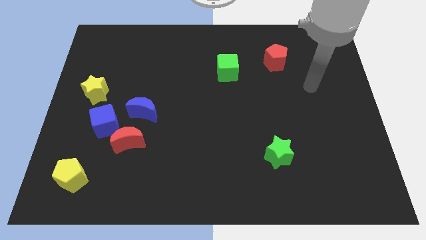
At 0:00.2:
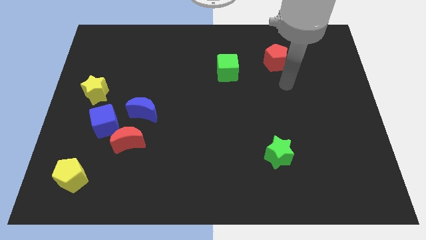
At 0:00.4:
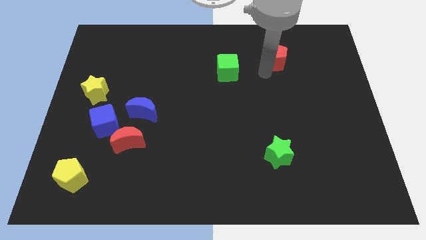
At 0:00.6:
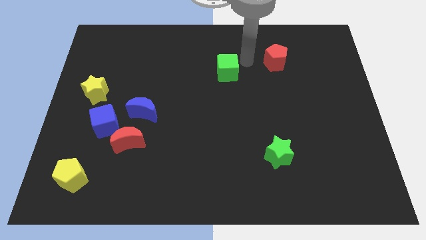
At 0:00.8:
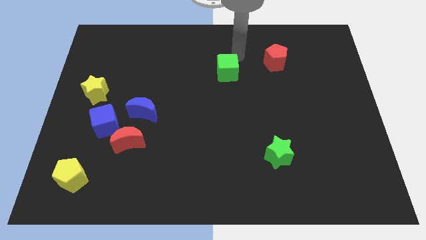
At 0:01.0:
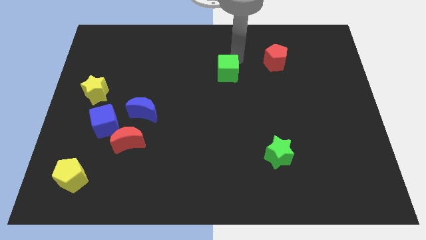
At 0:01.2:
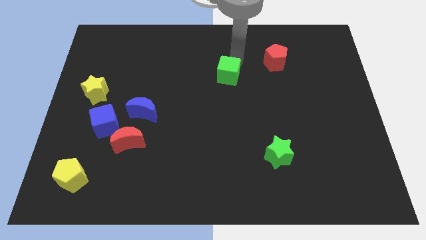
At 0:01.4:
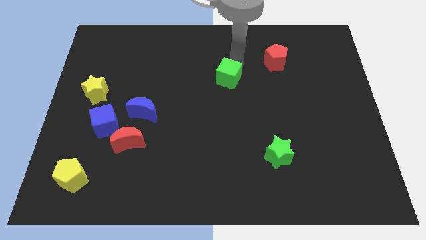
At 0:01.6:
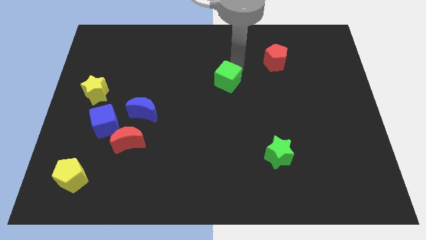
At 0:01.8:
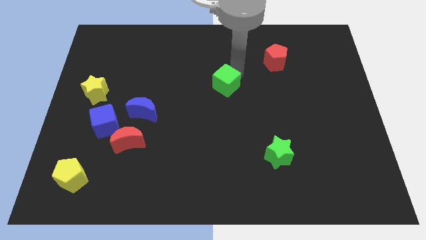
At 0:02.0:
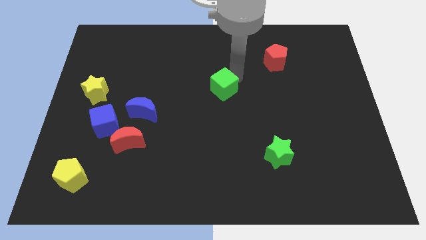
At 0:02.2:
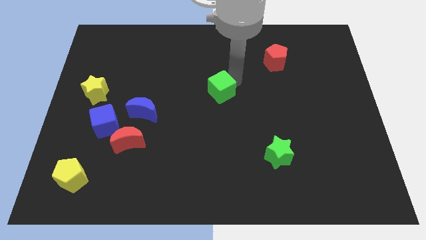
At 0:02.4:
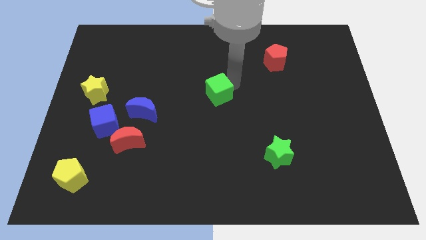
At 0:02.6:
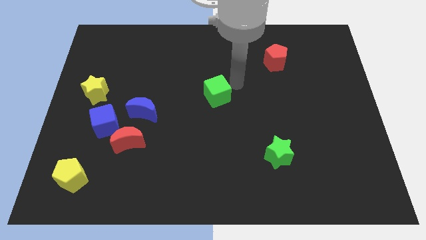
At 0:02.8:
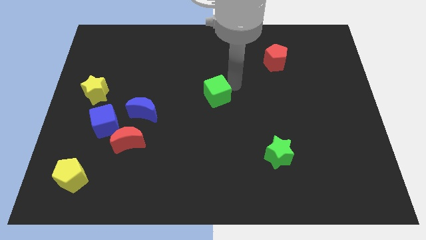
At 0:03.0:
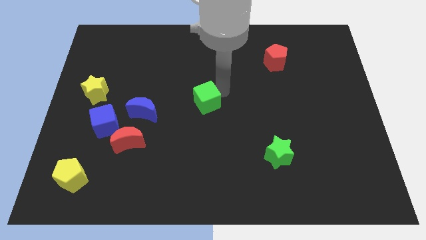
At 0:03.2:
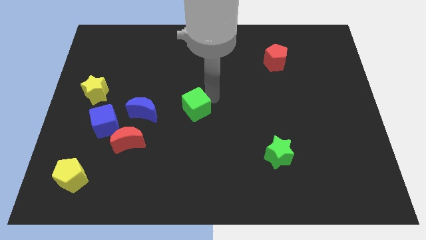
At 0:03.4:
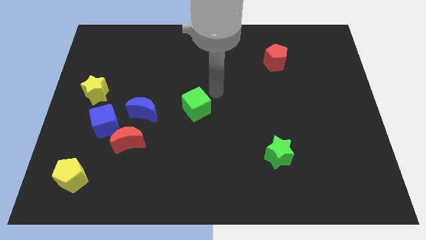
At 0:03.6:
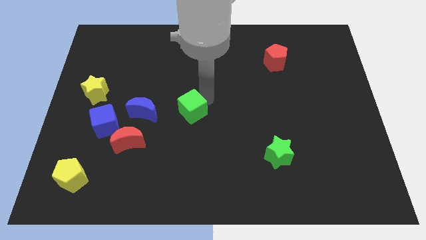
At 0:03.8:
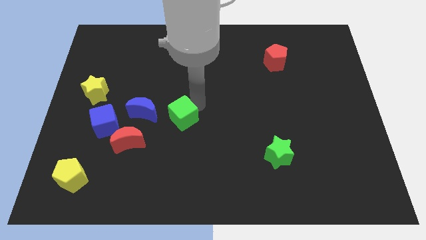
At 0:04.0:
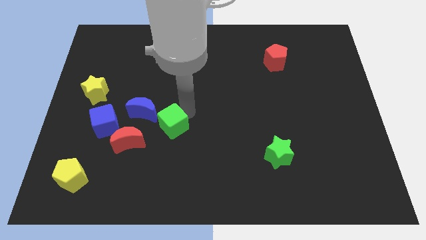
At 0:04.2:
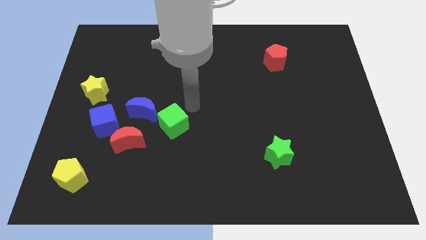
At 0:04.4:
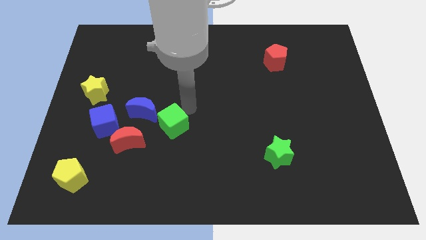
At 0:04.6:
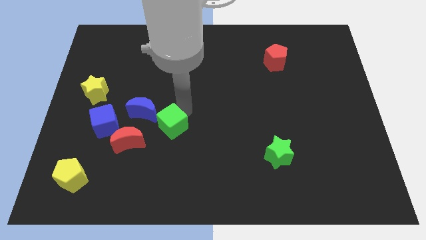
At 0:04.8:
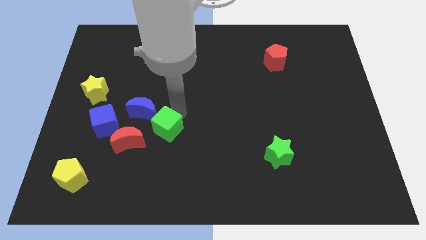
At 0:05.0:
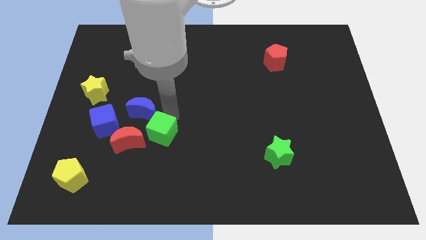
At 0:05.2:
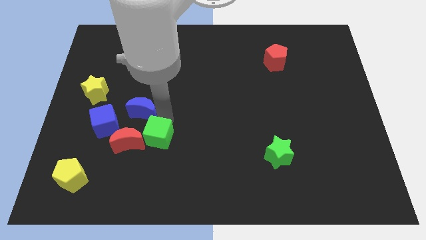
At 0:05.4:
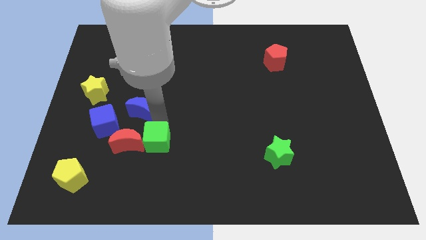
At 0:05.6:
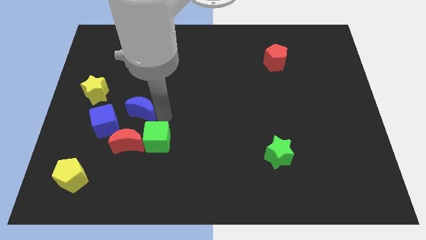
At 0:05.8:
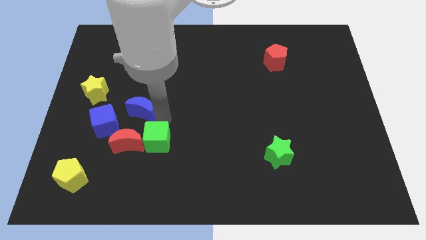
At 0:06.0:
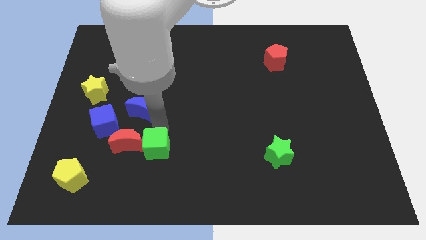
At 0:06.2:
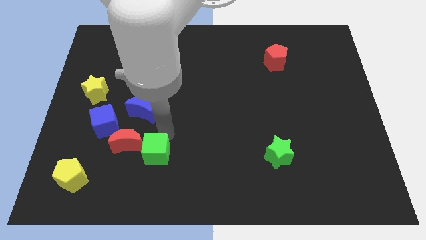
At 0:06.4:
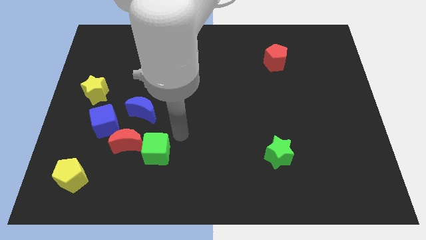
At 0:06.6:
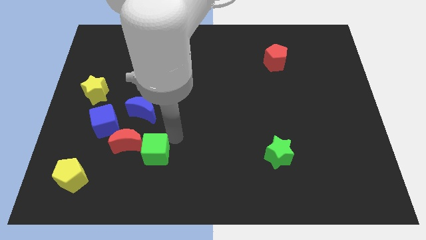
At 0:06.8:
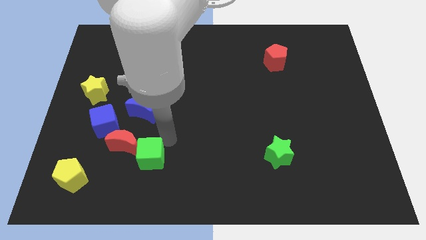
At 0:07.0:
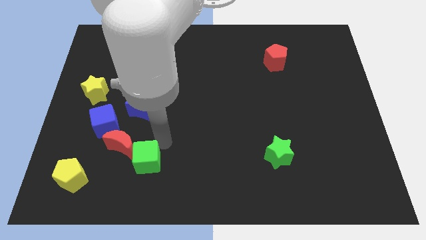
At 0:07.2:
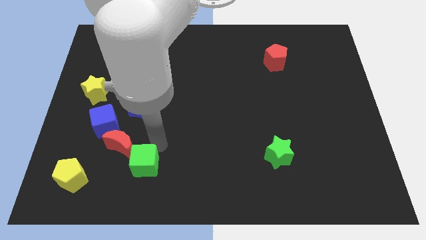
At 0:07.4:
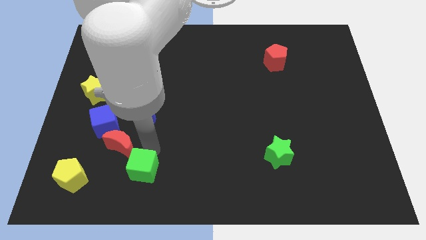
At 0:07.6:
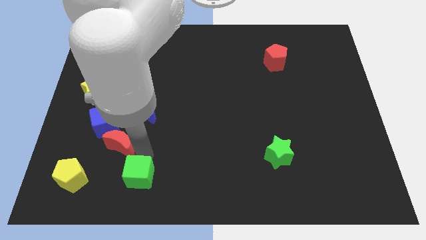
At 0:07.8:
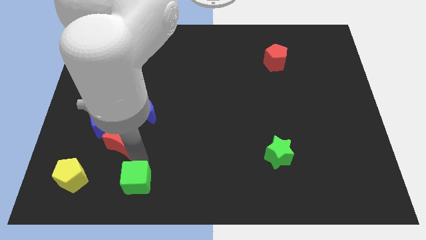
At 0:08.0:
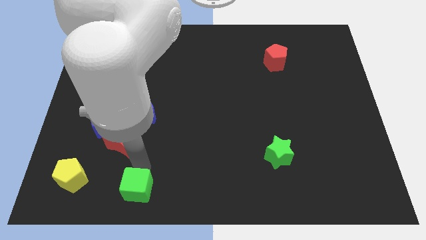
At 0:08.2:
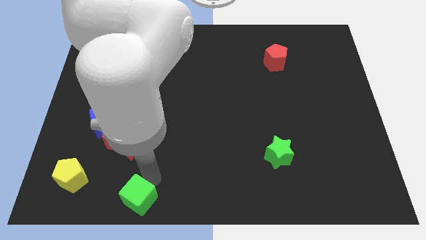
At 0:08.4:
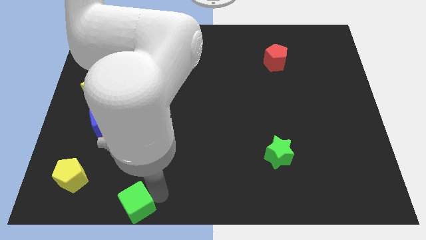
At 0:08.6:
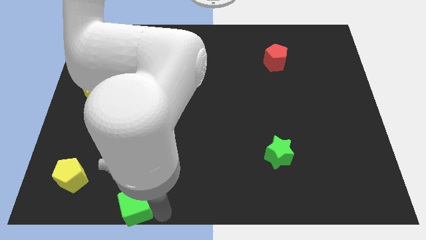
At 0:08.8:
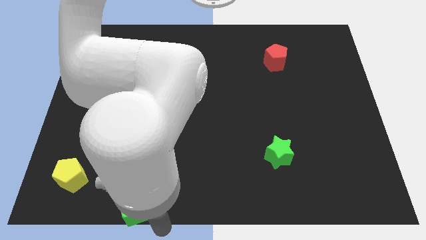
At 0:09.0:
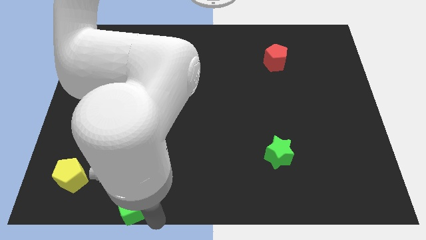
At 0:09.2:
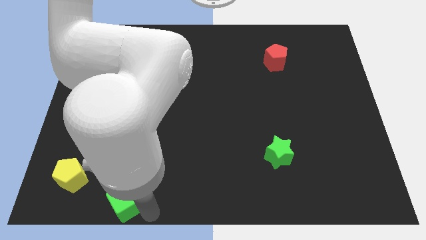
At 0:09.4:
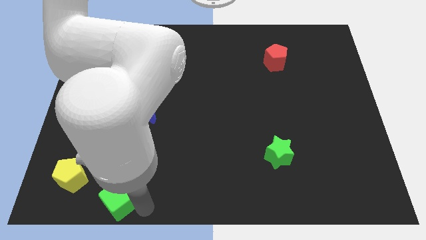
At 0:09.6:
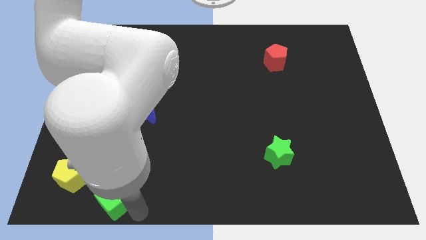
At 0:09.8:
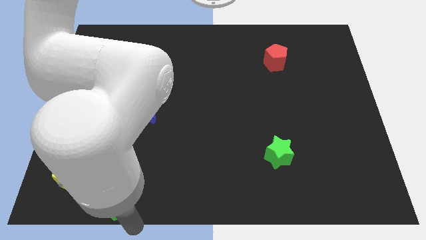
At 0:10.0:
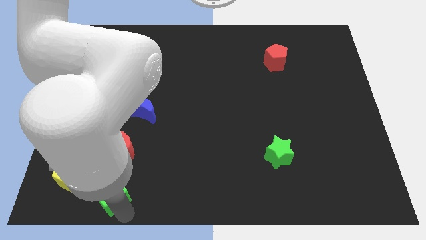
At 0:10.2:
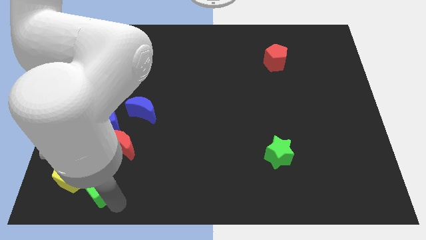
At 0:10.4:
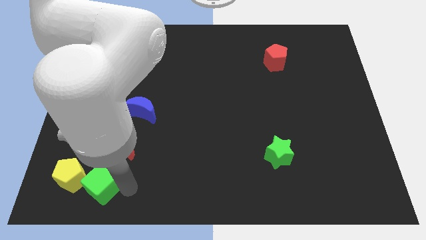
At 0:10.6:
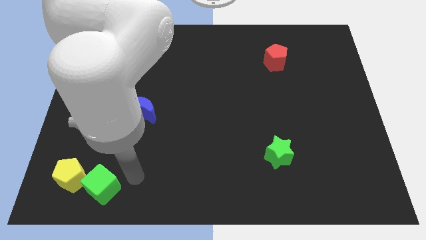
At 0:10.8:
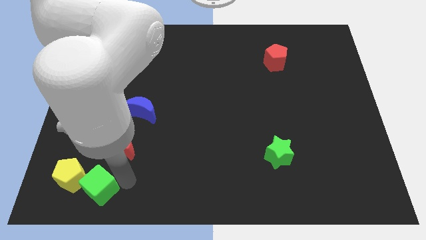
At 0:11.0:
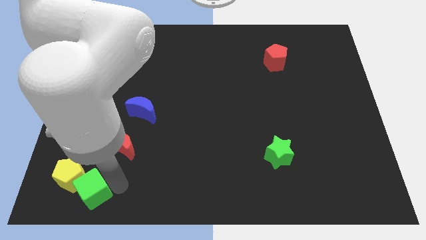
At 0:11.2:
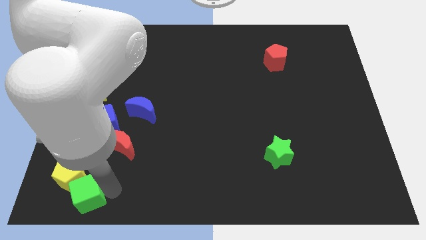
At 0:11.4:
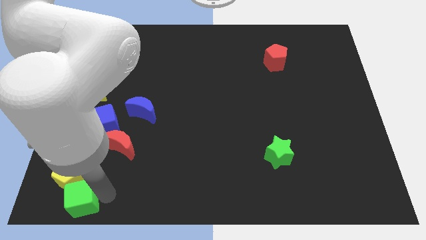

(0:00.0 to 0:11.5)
slide the green cube to the bottom left
